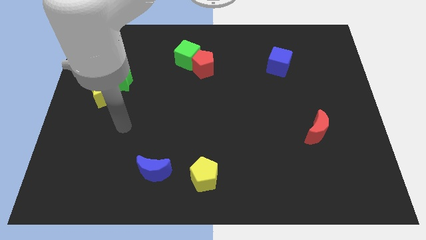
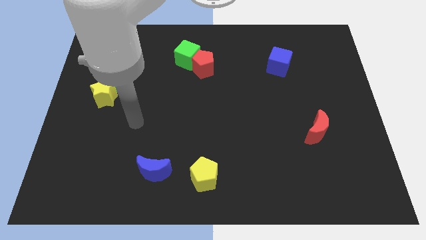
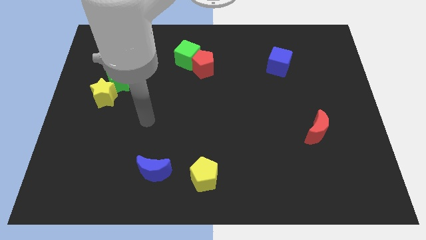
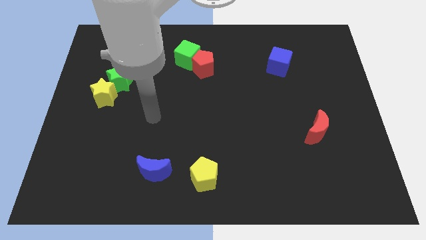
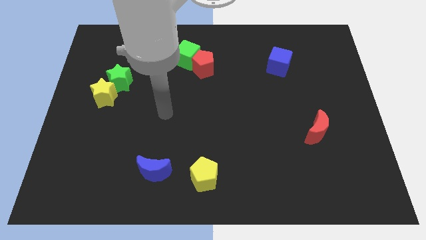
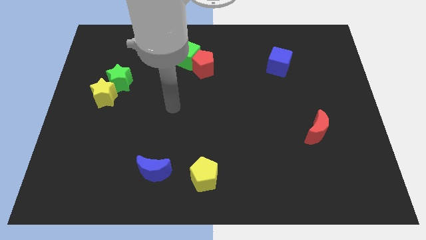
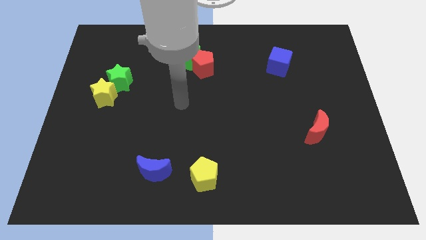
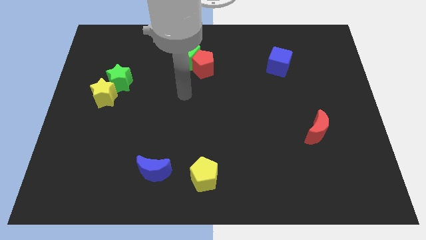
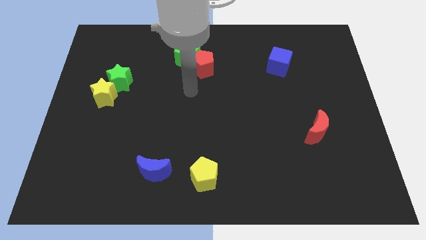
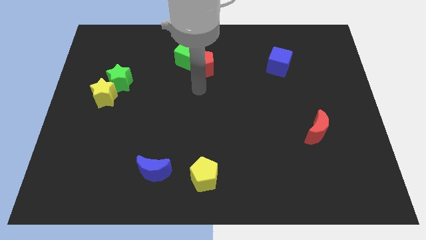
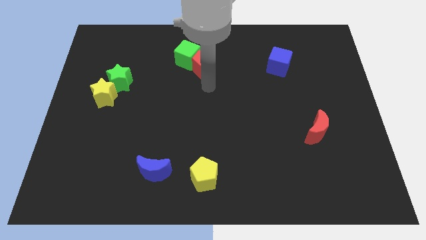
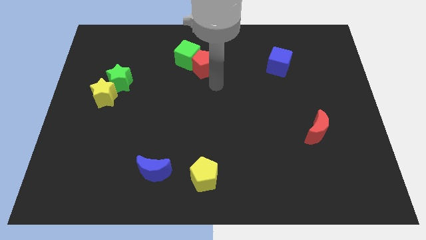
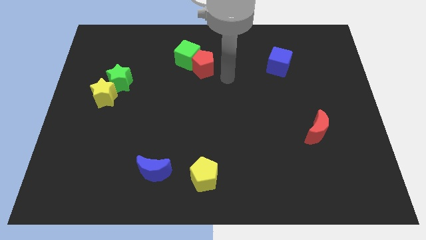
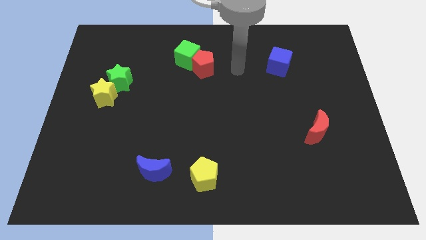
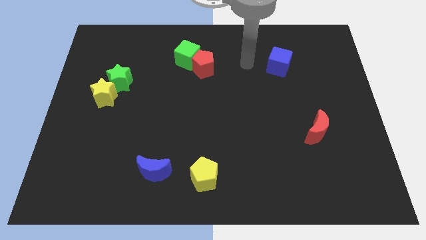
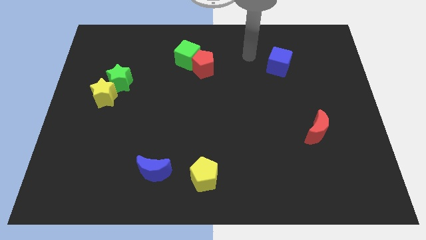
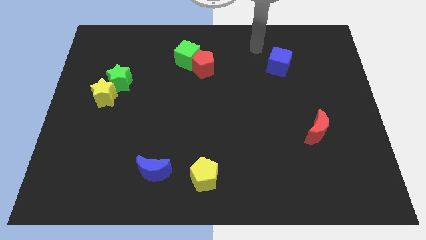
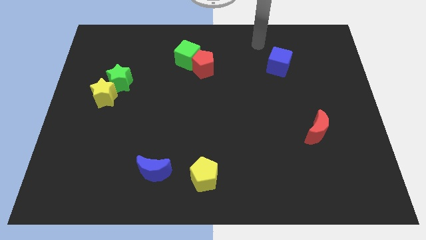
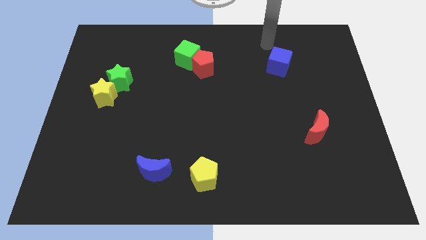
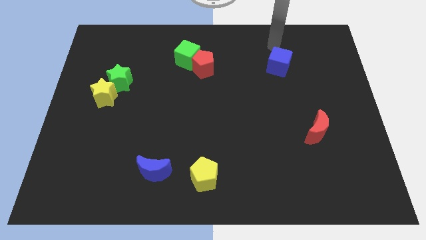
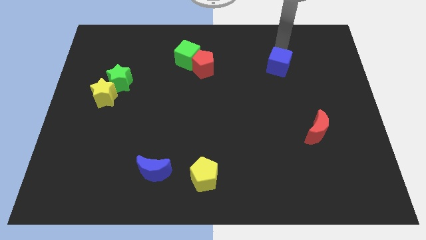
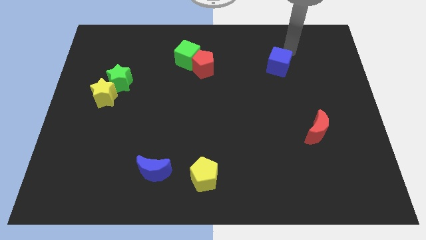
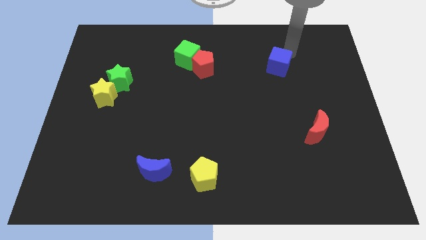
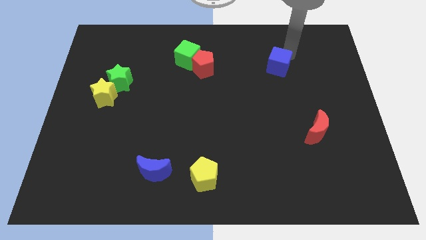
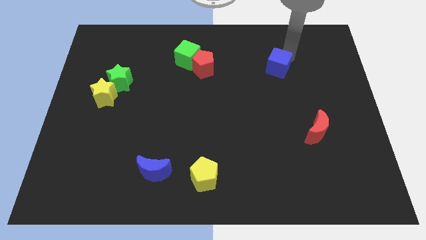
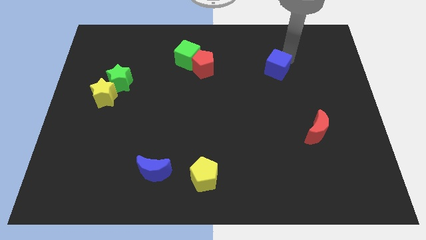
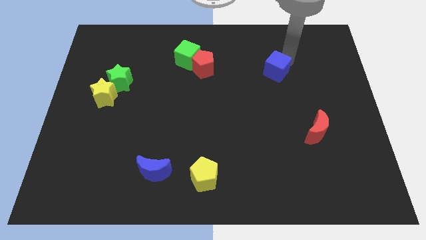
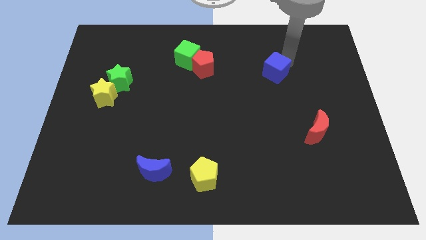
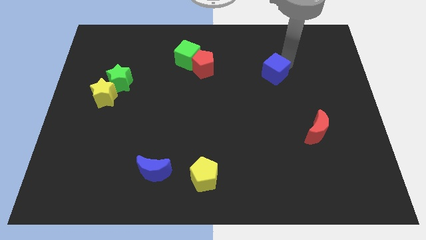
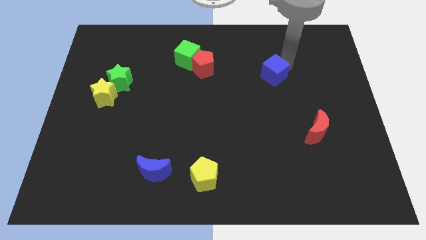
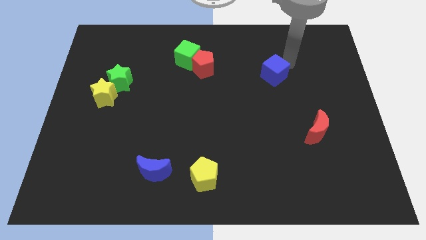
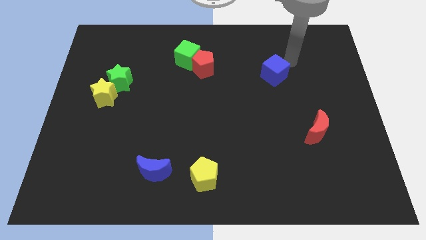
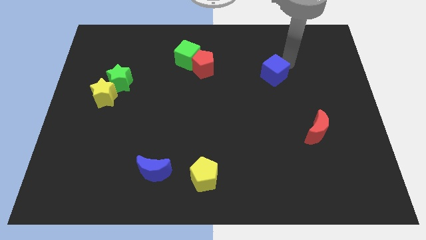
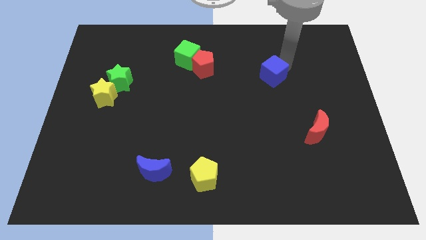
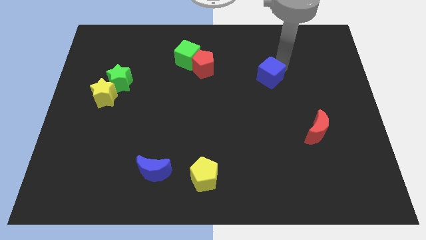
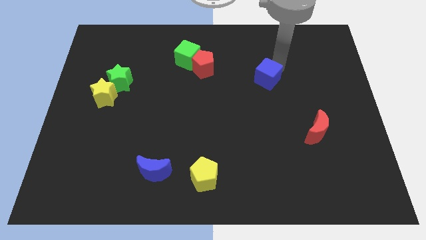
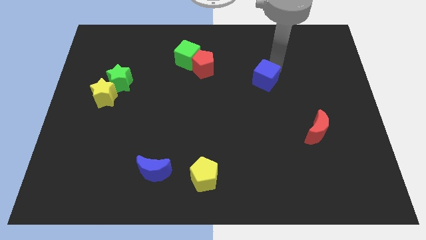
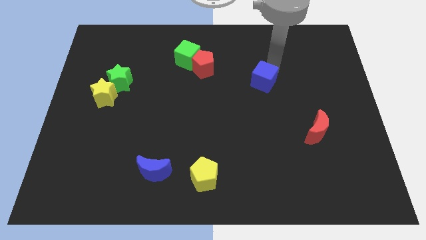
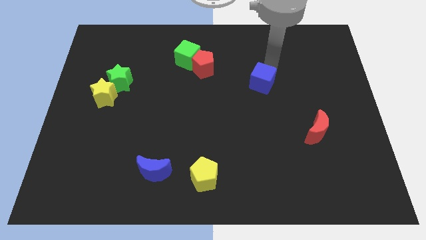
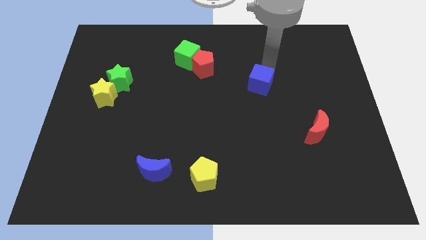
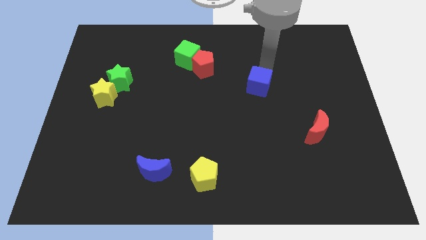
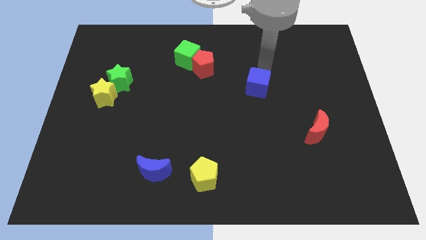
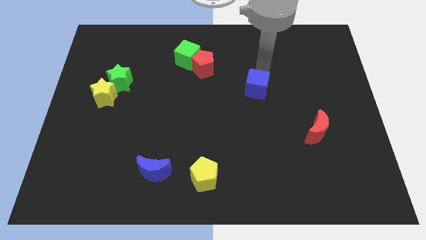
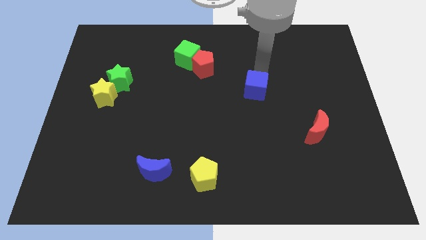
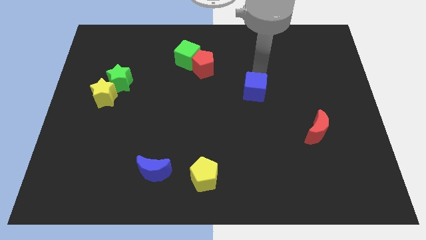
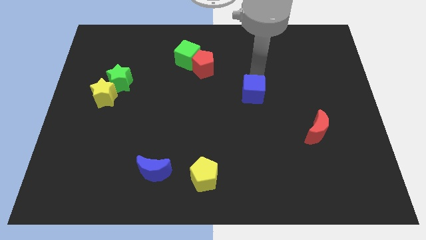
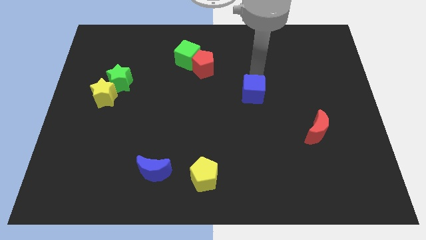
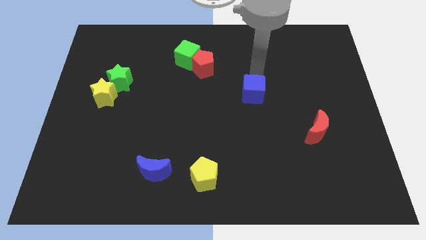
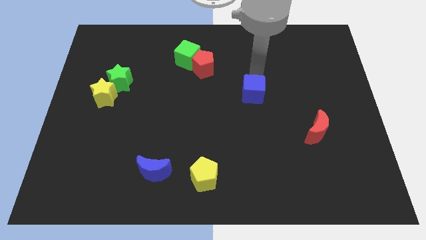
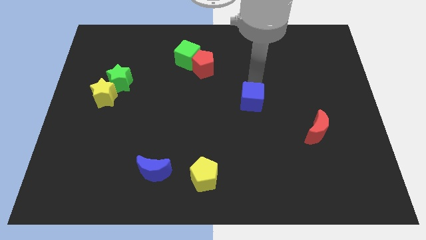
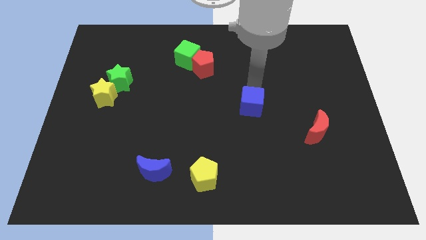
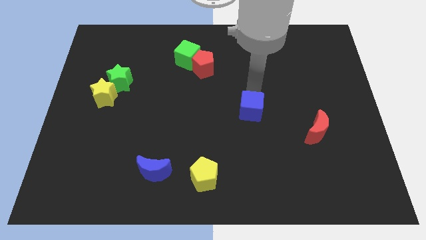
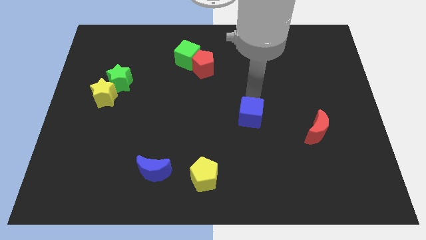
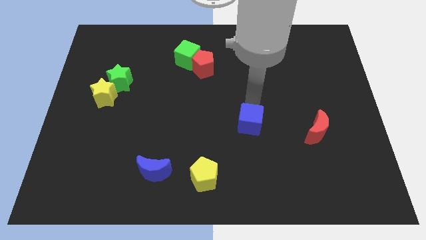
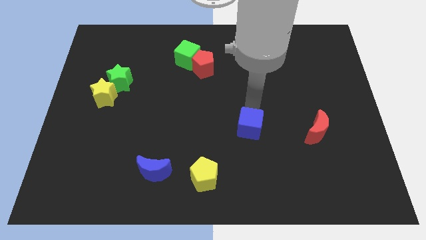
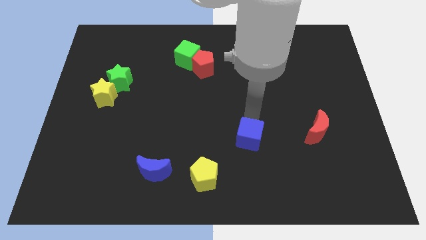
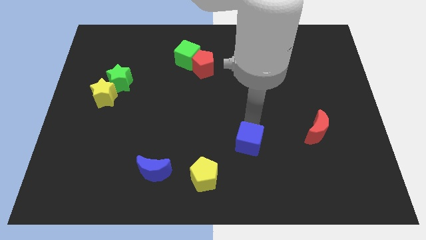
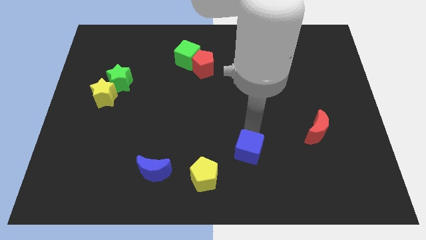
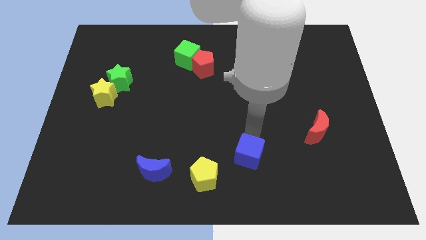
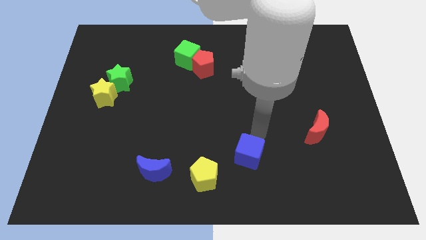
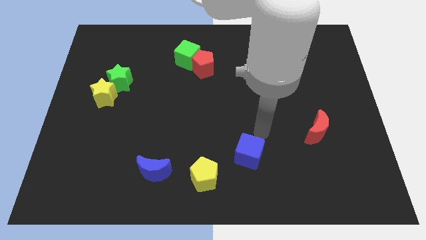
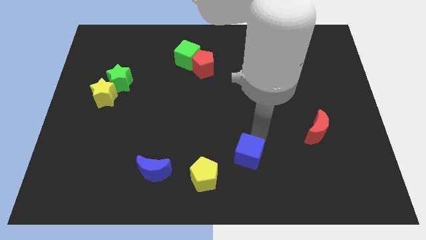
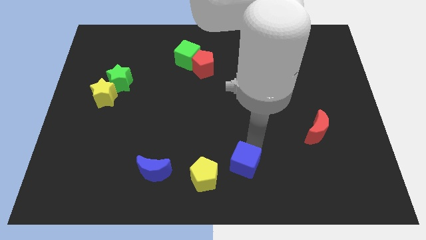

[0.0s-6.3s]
push the blue cube to the bottom
